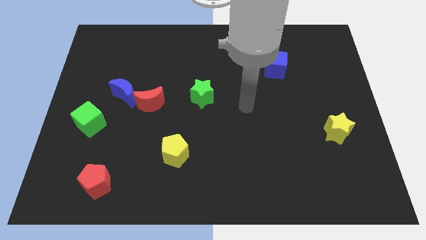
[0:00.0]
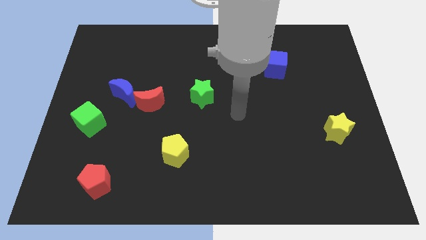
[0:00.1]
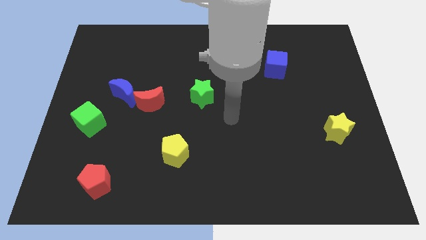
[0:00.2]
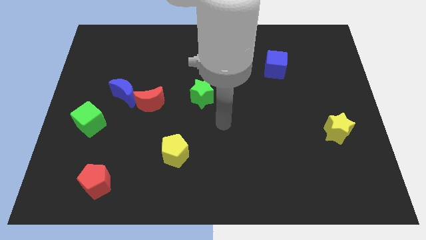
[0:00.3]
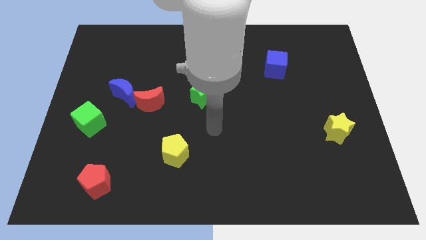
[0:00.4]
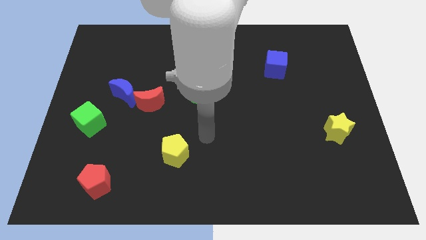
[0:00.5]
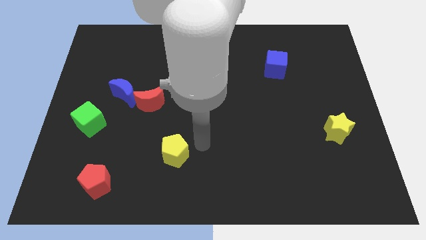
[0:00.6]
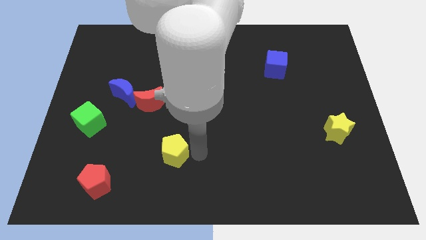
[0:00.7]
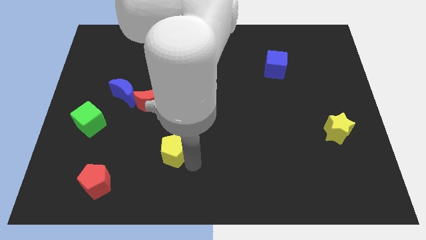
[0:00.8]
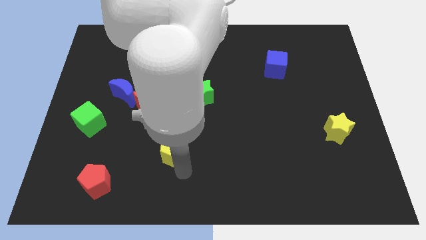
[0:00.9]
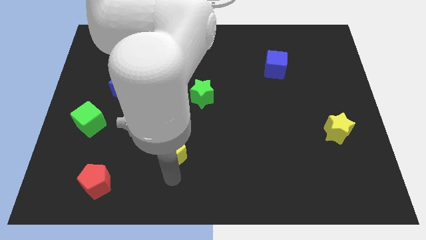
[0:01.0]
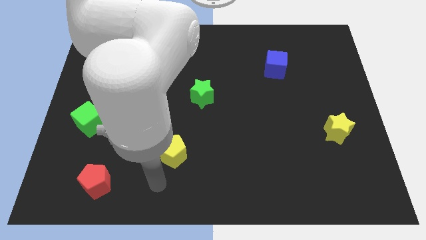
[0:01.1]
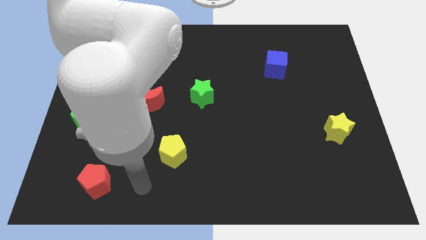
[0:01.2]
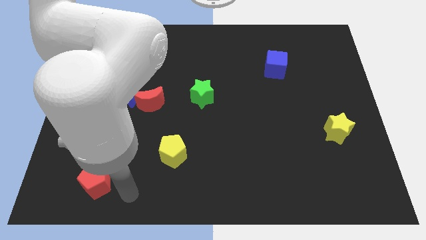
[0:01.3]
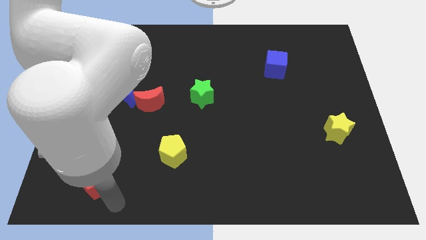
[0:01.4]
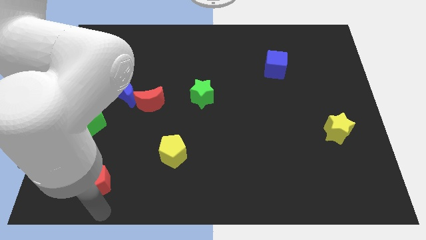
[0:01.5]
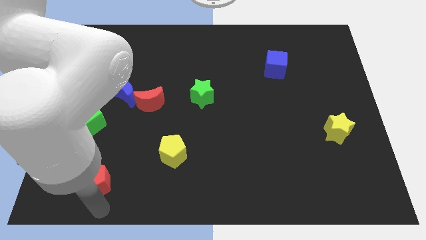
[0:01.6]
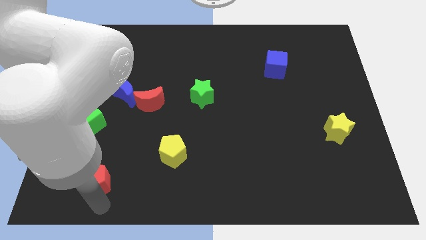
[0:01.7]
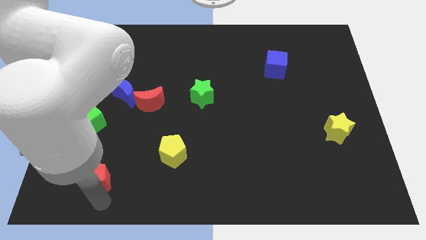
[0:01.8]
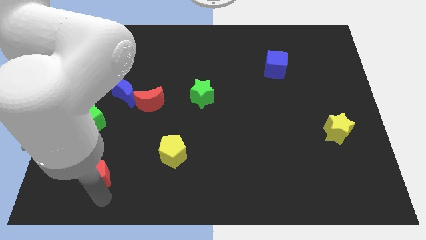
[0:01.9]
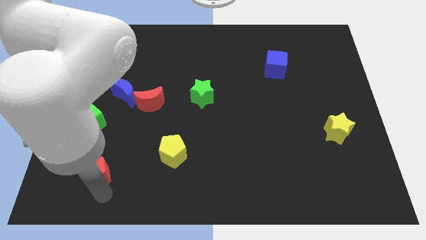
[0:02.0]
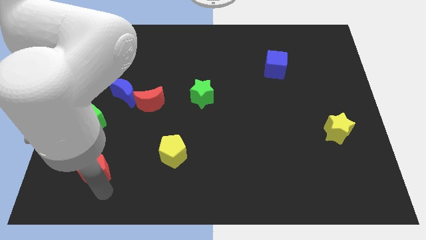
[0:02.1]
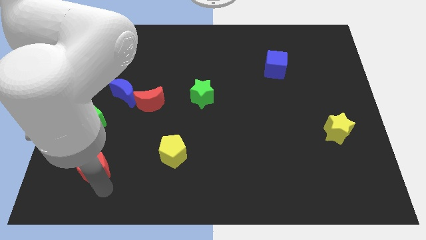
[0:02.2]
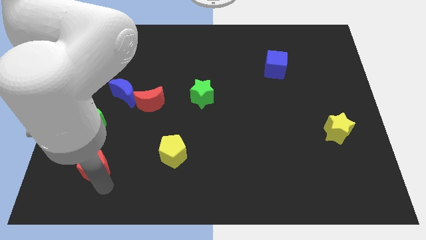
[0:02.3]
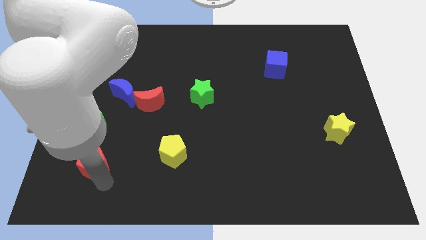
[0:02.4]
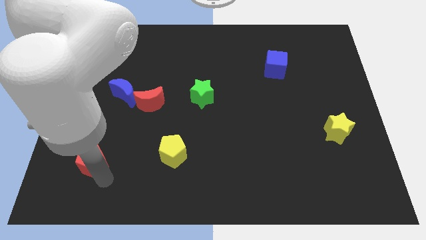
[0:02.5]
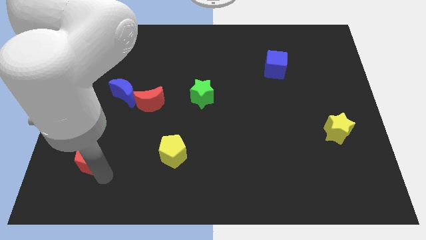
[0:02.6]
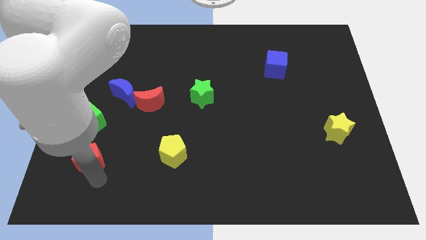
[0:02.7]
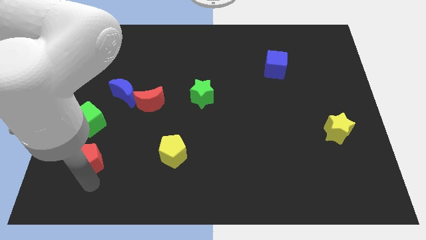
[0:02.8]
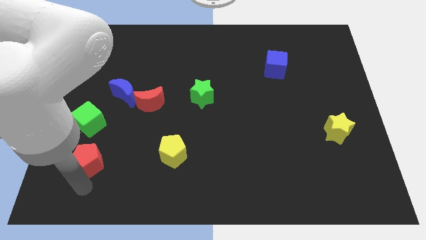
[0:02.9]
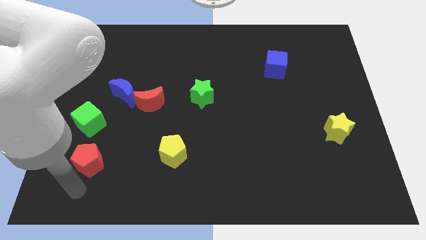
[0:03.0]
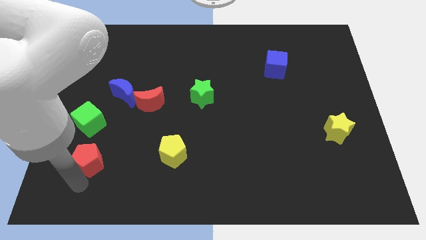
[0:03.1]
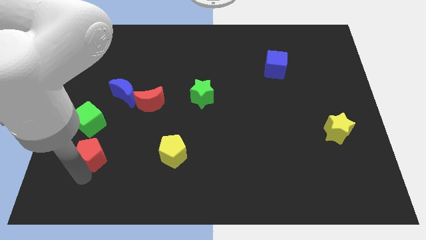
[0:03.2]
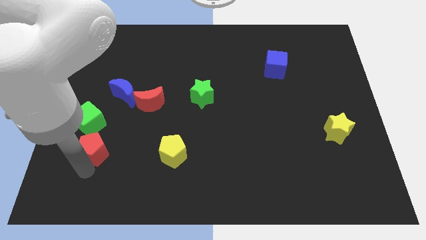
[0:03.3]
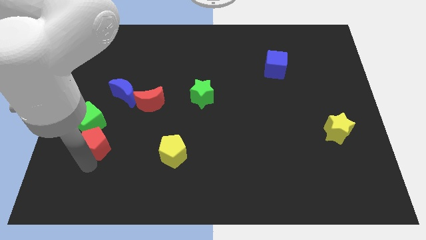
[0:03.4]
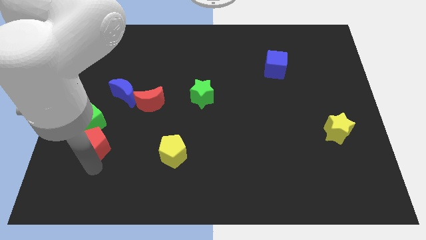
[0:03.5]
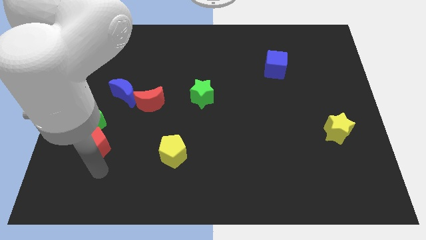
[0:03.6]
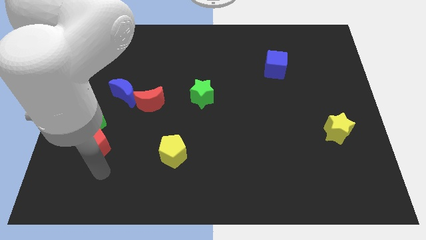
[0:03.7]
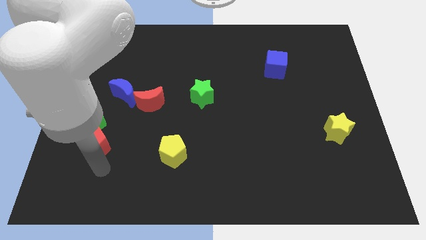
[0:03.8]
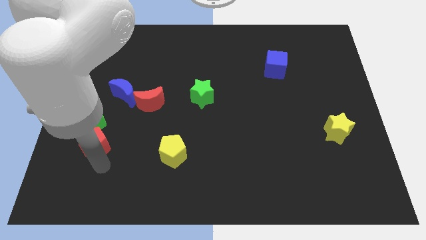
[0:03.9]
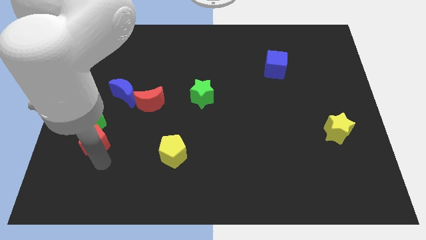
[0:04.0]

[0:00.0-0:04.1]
slide the red pentagon towards the green cube

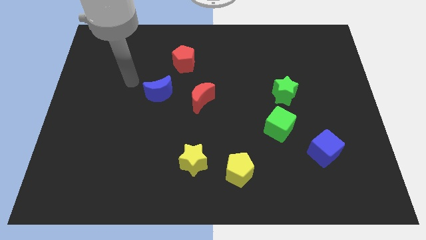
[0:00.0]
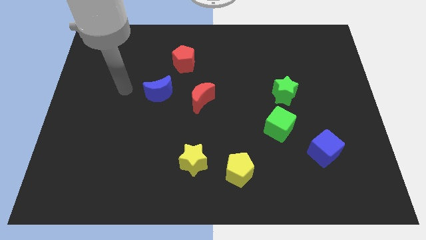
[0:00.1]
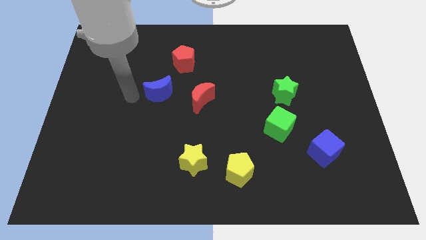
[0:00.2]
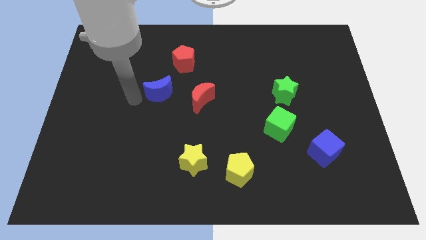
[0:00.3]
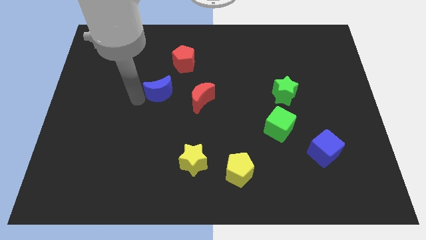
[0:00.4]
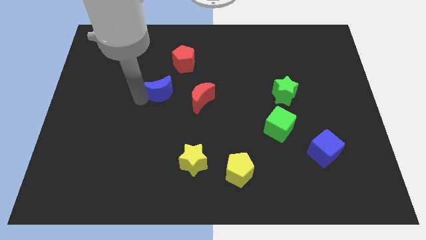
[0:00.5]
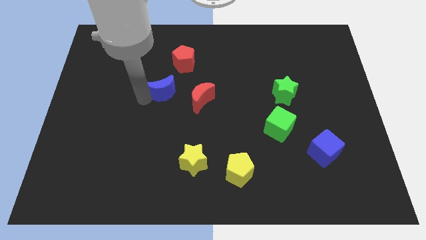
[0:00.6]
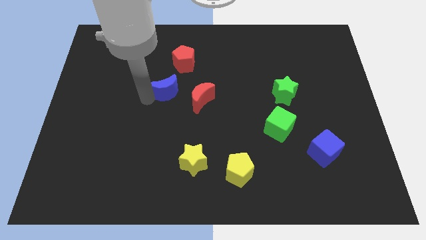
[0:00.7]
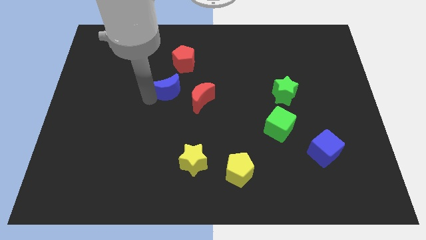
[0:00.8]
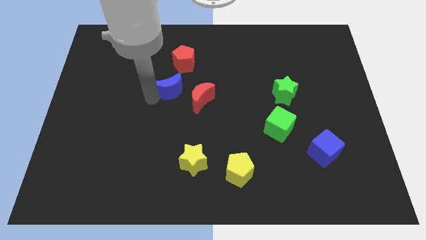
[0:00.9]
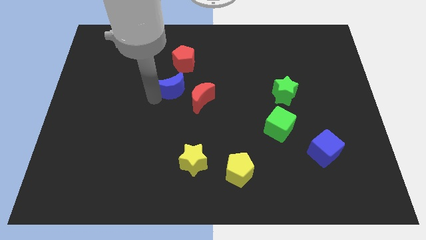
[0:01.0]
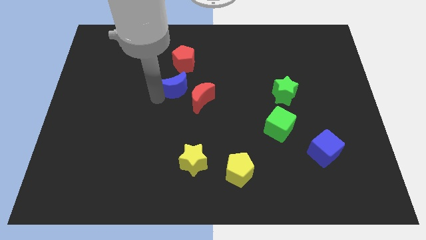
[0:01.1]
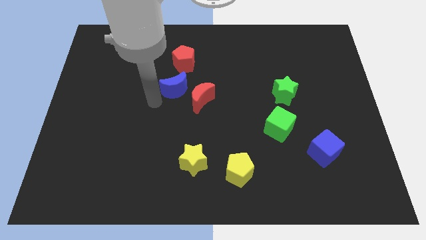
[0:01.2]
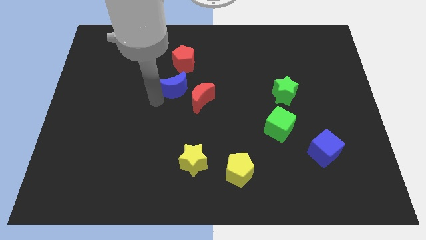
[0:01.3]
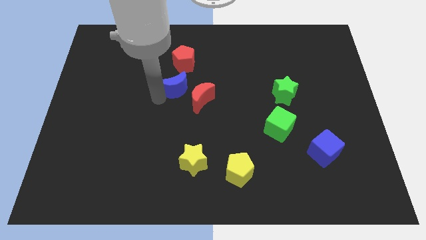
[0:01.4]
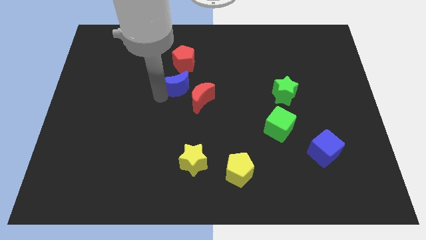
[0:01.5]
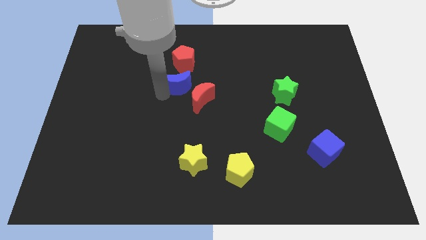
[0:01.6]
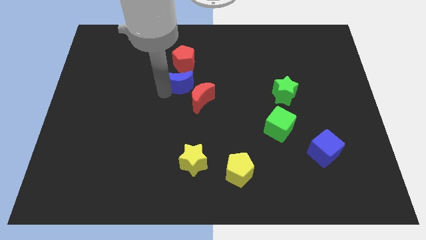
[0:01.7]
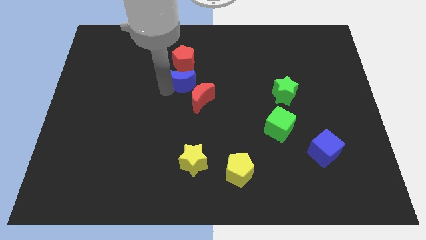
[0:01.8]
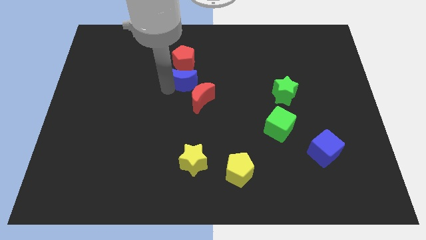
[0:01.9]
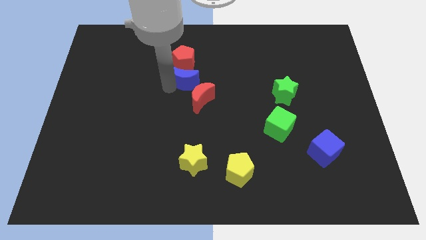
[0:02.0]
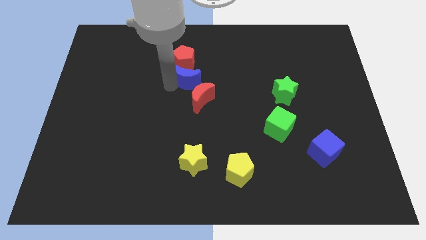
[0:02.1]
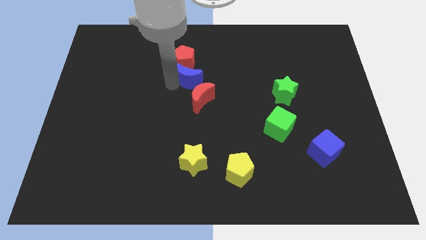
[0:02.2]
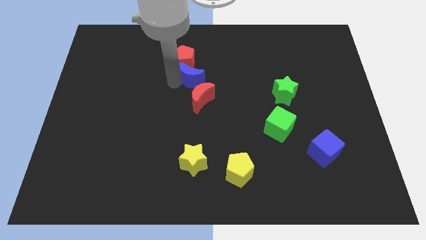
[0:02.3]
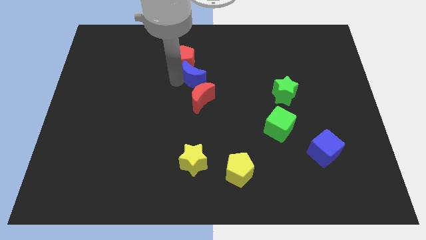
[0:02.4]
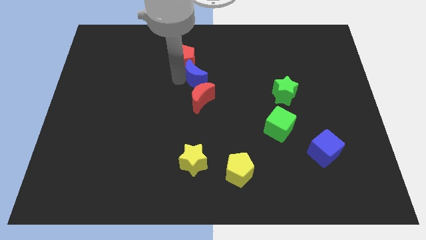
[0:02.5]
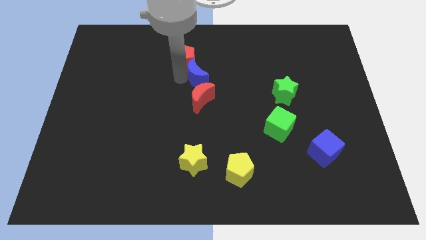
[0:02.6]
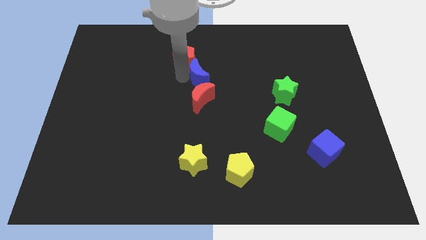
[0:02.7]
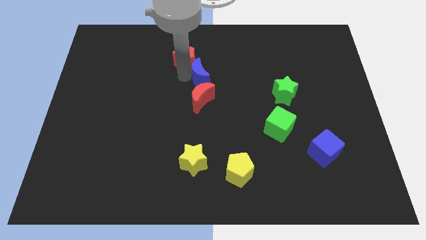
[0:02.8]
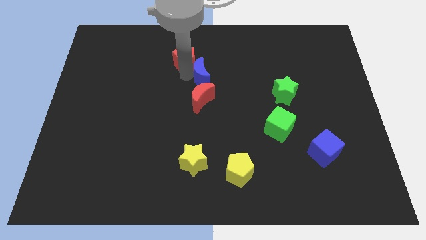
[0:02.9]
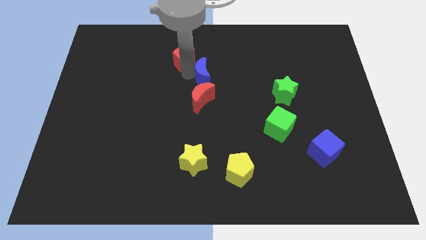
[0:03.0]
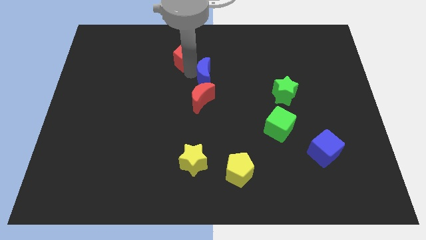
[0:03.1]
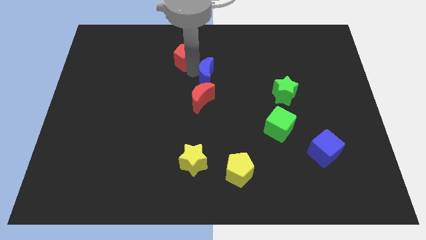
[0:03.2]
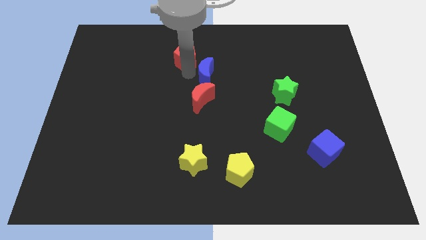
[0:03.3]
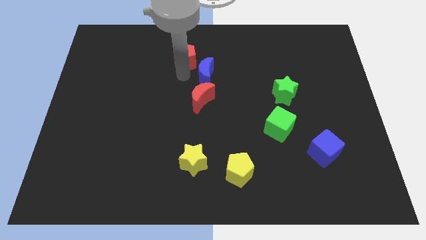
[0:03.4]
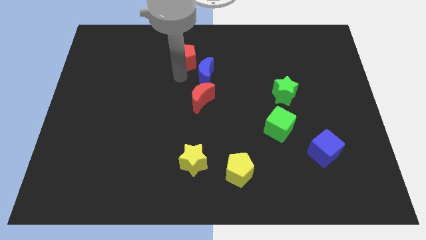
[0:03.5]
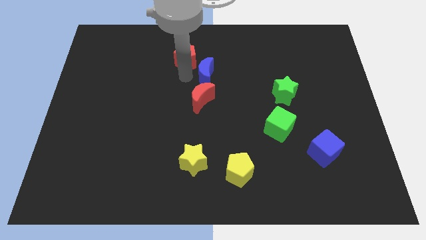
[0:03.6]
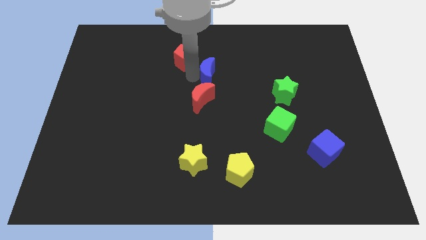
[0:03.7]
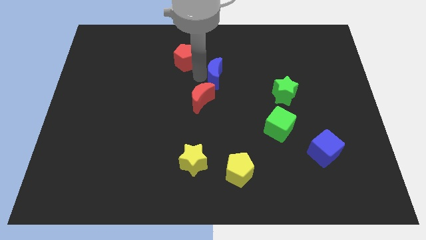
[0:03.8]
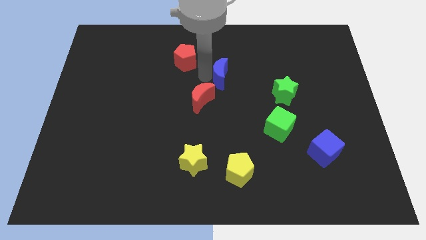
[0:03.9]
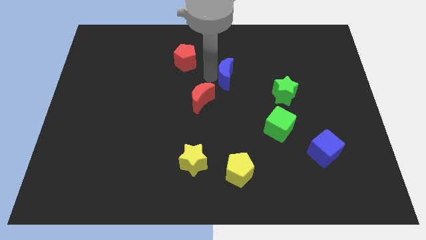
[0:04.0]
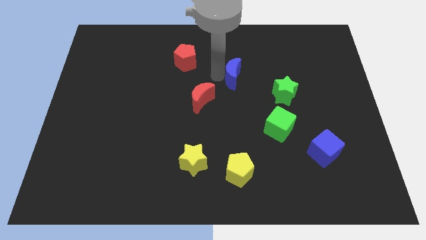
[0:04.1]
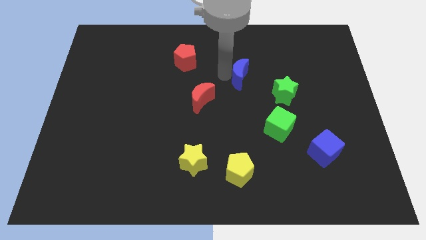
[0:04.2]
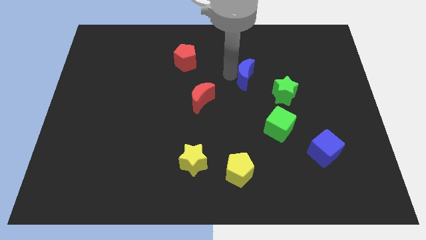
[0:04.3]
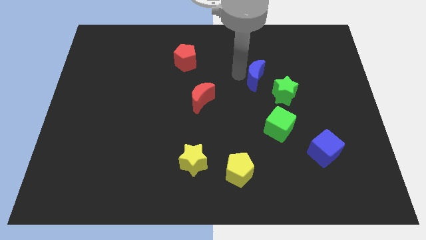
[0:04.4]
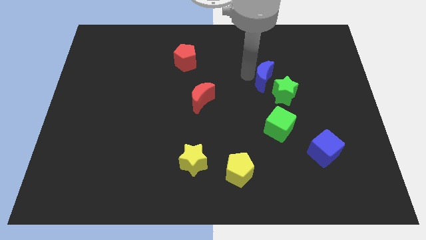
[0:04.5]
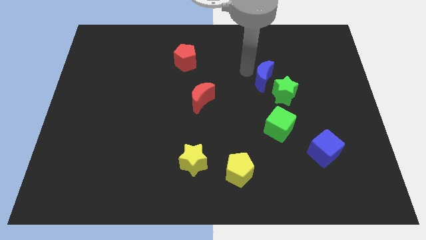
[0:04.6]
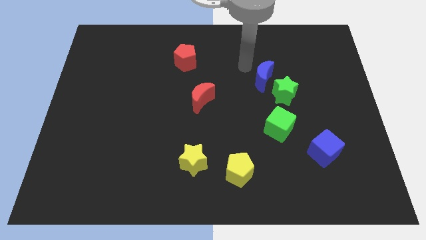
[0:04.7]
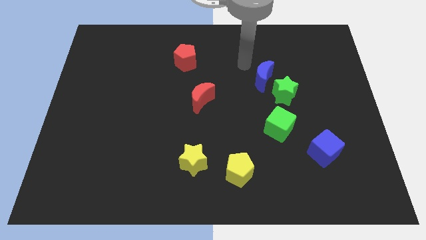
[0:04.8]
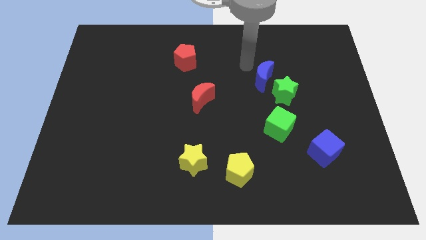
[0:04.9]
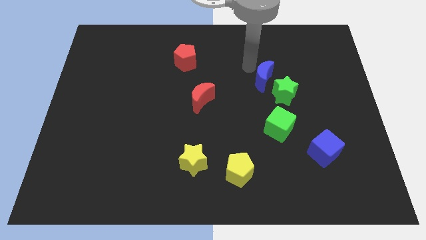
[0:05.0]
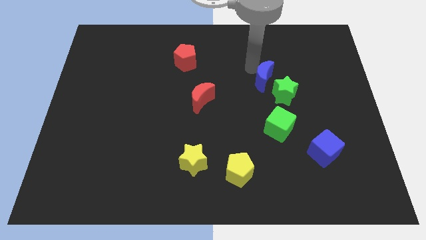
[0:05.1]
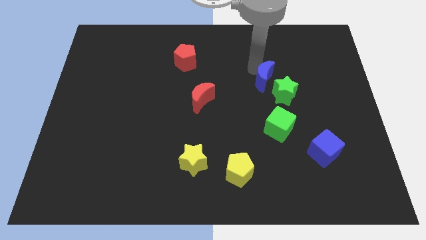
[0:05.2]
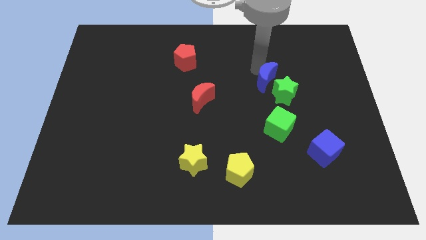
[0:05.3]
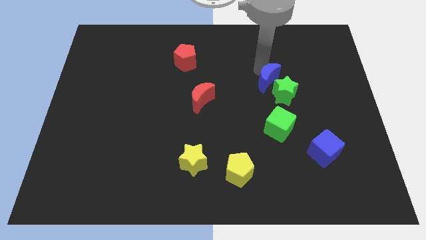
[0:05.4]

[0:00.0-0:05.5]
push the blue moon close to the green star
